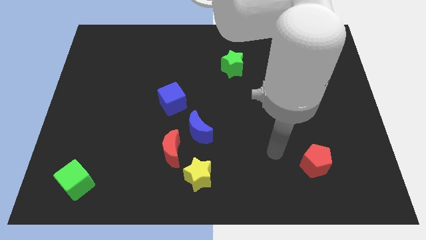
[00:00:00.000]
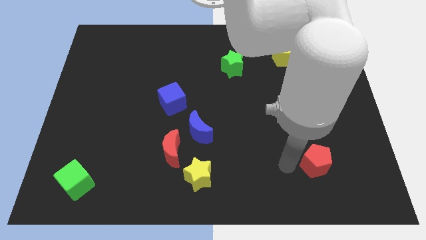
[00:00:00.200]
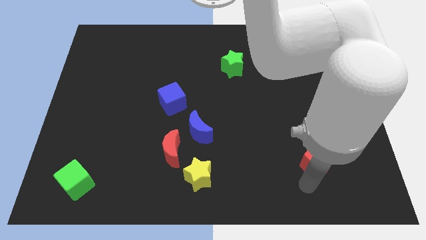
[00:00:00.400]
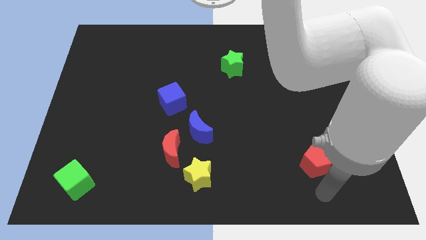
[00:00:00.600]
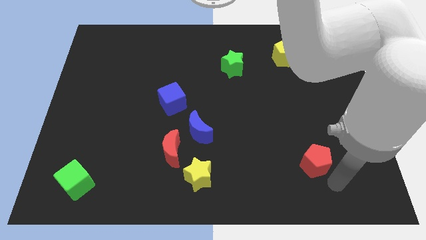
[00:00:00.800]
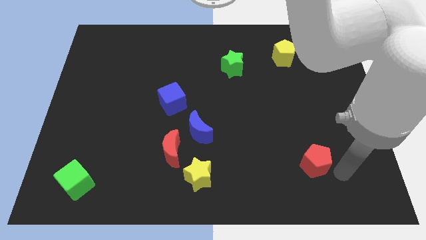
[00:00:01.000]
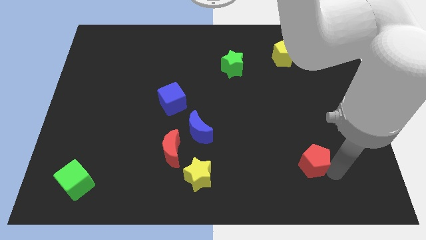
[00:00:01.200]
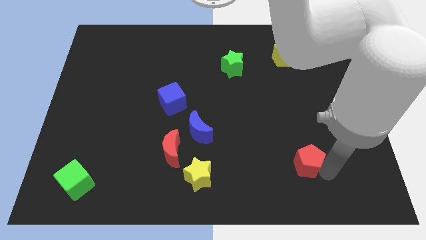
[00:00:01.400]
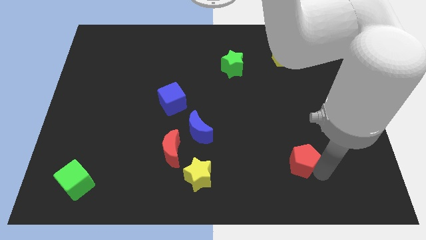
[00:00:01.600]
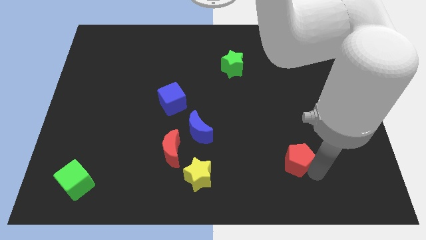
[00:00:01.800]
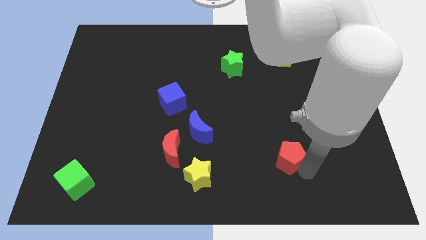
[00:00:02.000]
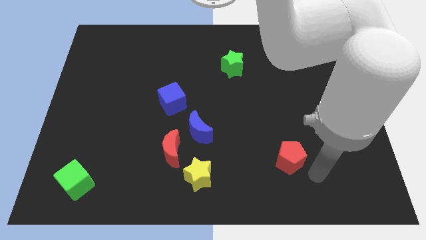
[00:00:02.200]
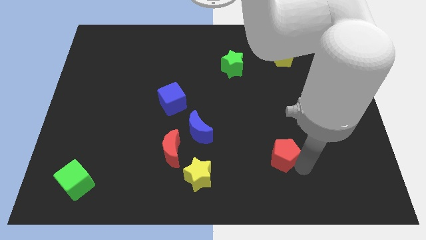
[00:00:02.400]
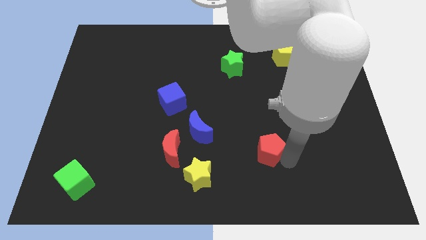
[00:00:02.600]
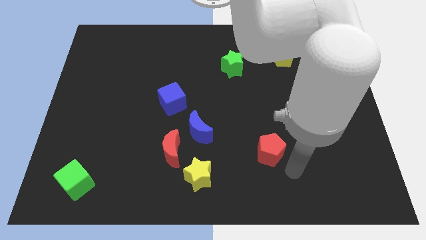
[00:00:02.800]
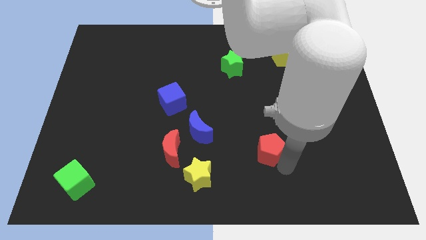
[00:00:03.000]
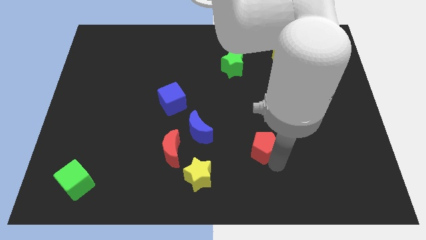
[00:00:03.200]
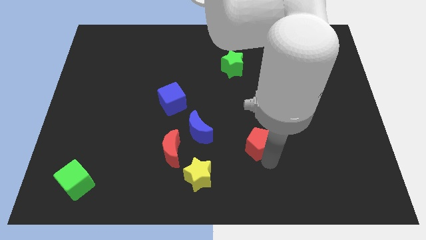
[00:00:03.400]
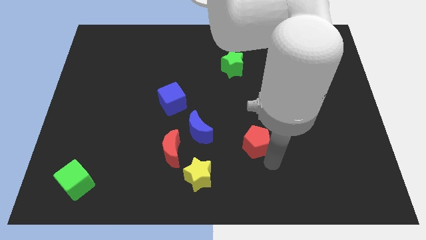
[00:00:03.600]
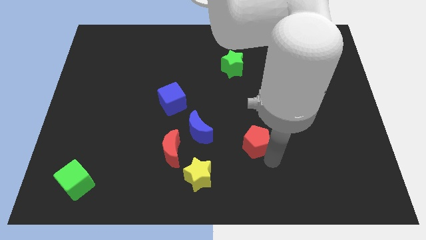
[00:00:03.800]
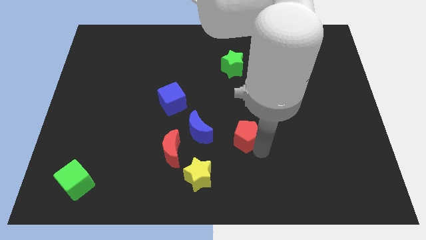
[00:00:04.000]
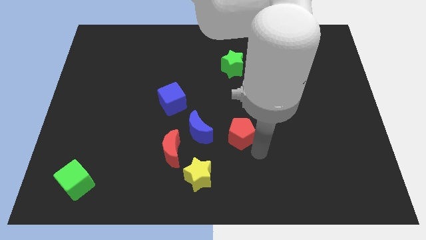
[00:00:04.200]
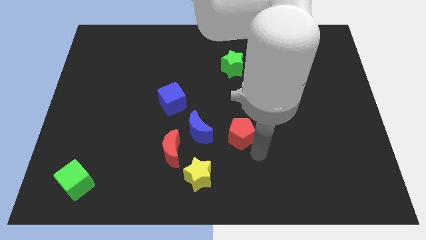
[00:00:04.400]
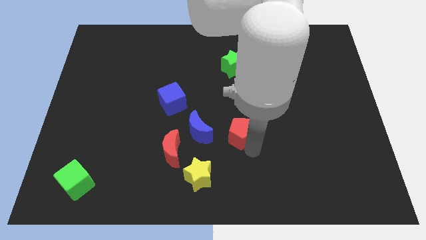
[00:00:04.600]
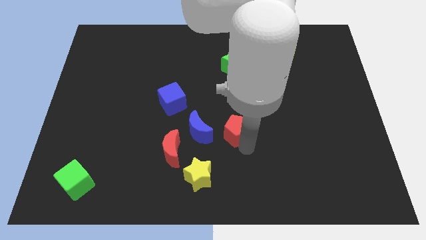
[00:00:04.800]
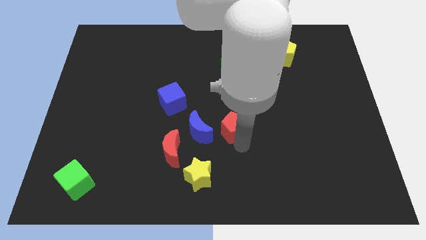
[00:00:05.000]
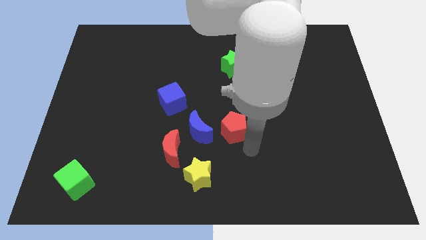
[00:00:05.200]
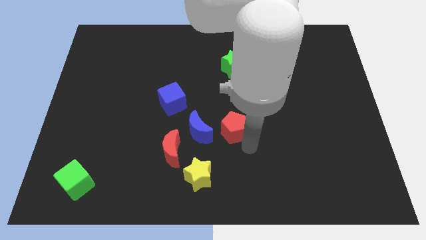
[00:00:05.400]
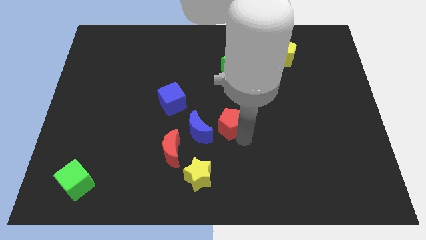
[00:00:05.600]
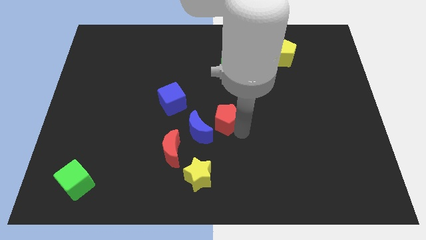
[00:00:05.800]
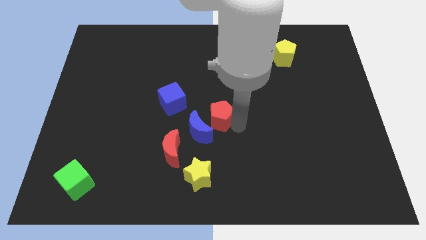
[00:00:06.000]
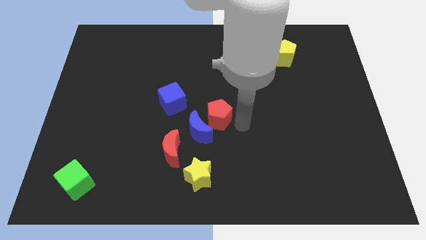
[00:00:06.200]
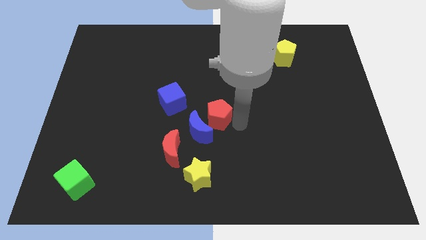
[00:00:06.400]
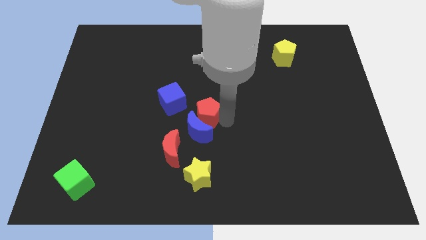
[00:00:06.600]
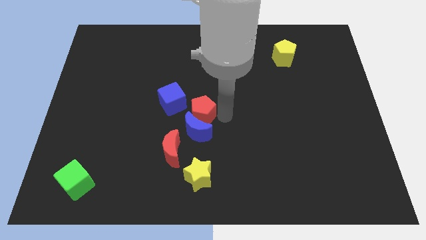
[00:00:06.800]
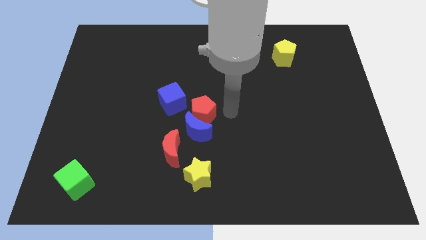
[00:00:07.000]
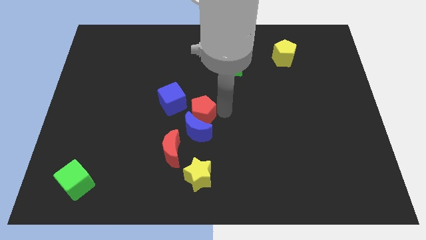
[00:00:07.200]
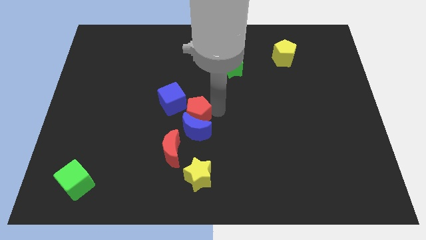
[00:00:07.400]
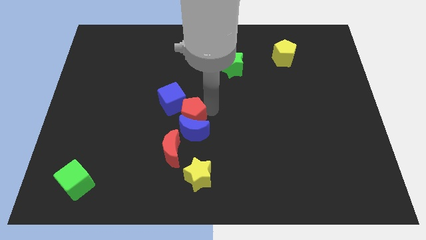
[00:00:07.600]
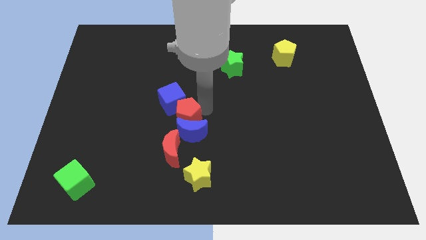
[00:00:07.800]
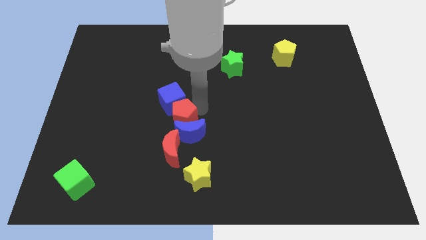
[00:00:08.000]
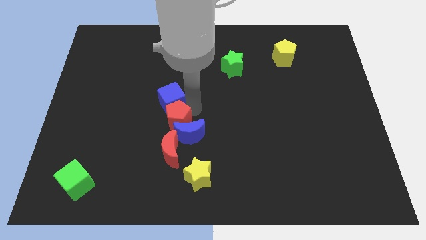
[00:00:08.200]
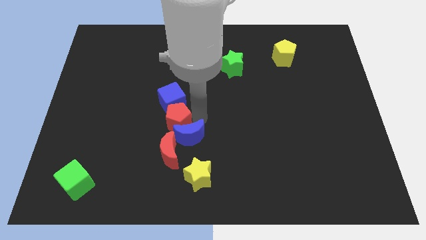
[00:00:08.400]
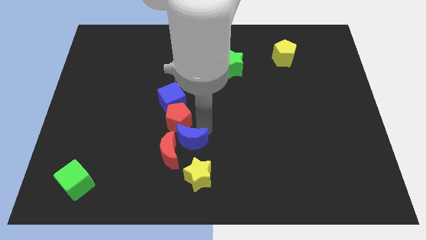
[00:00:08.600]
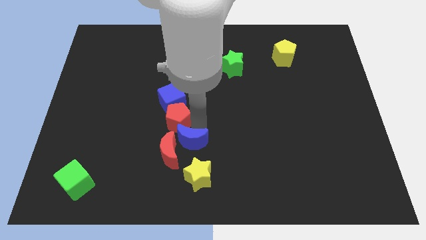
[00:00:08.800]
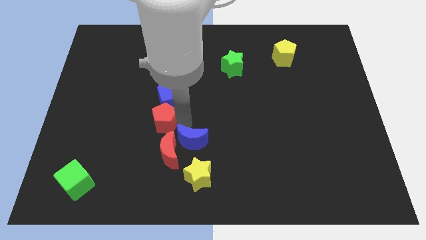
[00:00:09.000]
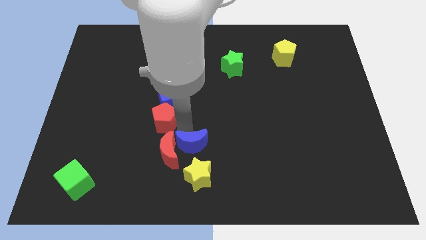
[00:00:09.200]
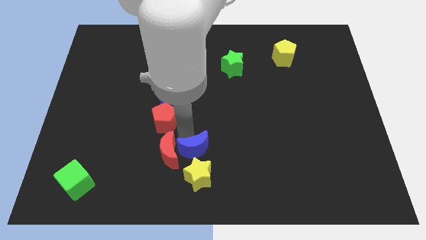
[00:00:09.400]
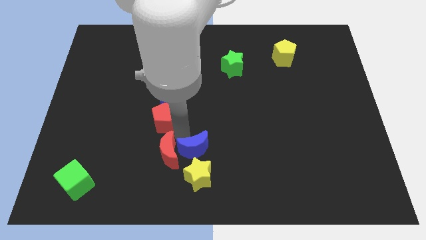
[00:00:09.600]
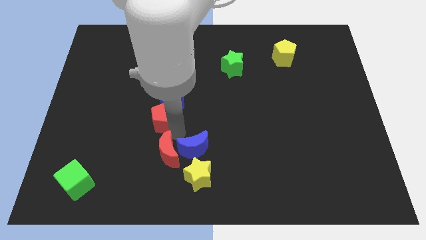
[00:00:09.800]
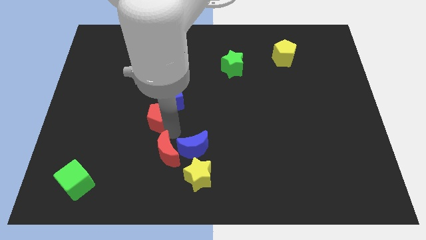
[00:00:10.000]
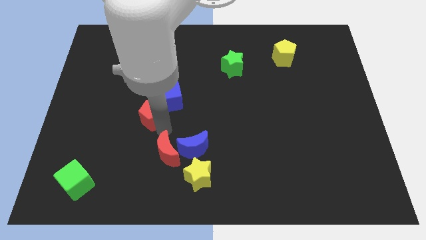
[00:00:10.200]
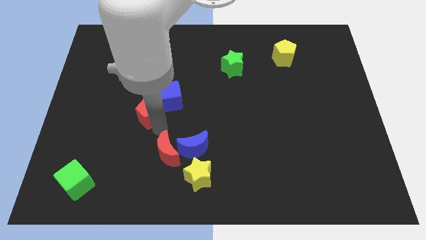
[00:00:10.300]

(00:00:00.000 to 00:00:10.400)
put the red pentagon left of the blue cube

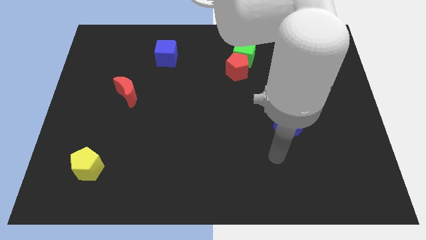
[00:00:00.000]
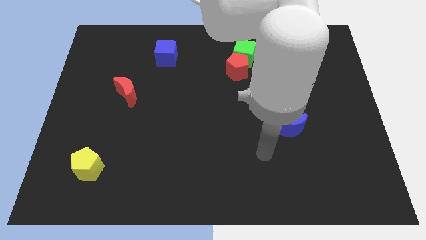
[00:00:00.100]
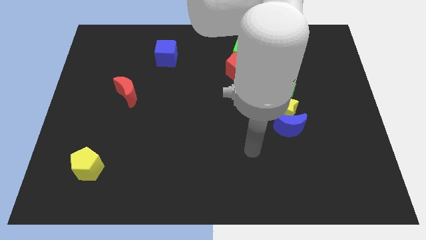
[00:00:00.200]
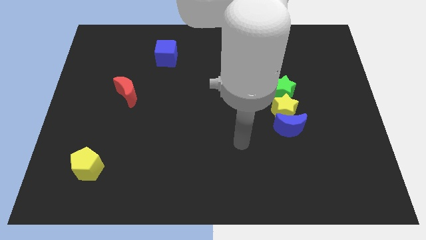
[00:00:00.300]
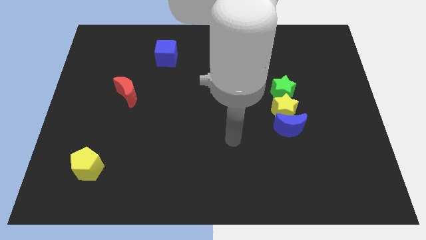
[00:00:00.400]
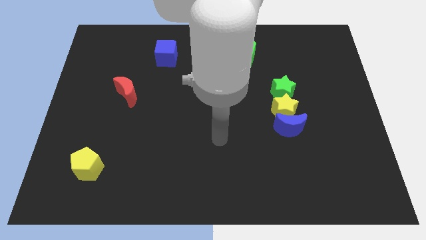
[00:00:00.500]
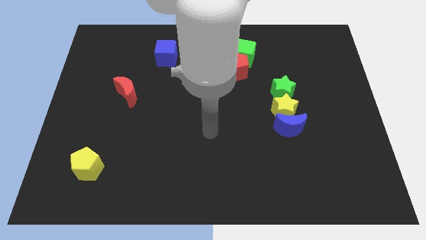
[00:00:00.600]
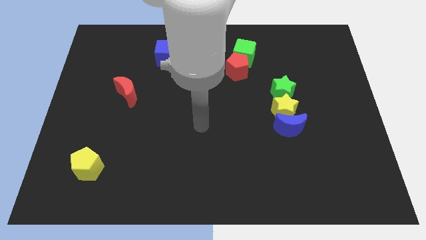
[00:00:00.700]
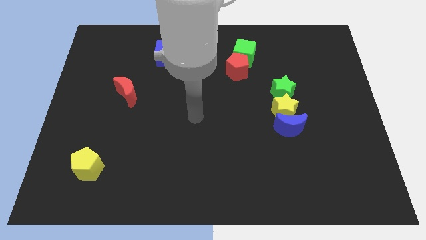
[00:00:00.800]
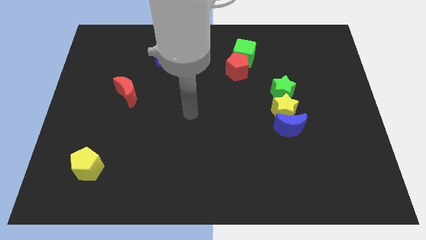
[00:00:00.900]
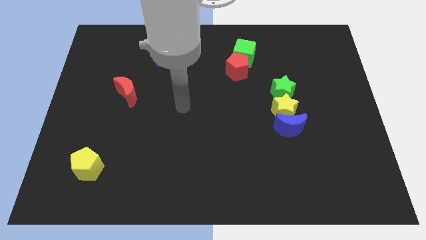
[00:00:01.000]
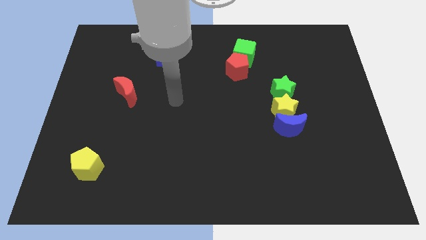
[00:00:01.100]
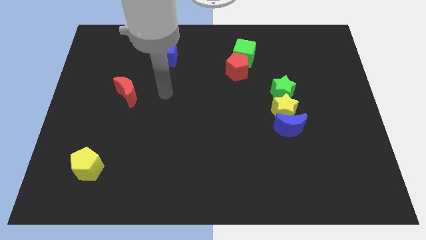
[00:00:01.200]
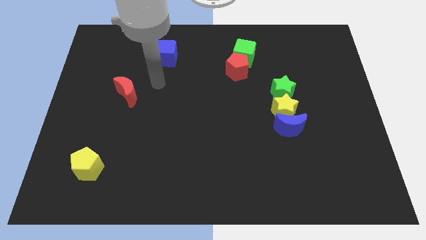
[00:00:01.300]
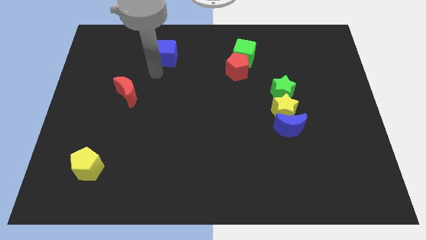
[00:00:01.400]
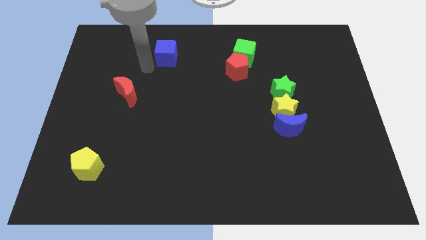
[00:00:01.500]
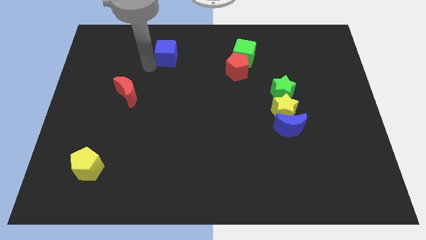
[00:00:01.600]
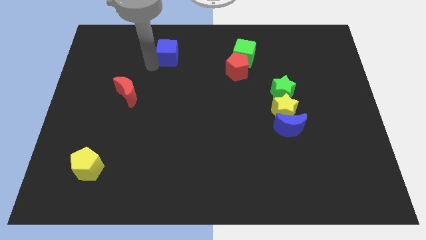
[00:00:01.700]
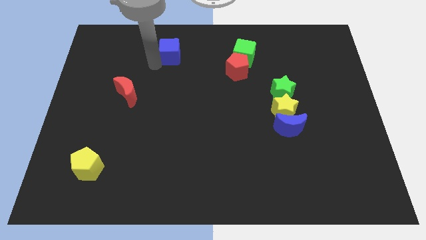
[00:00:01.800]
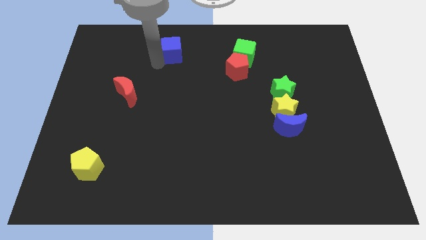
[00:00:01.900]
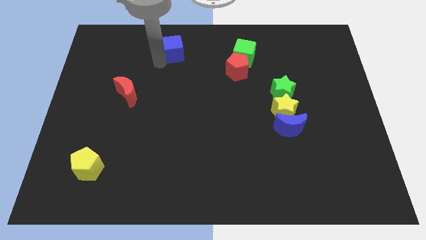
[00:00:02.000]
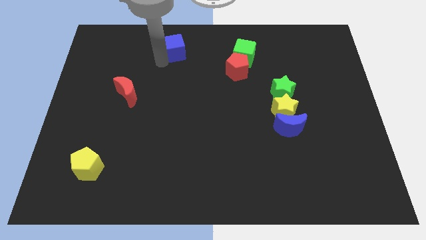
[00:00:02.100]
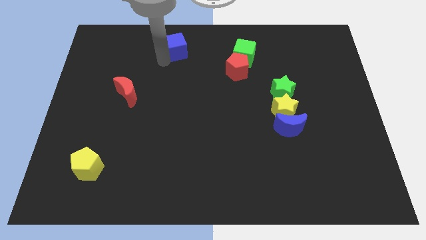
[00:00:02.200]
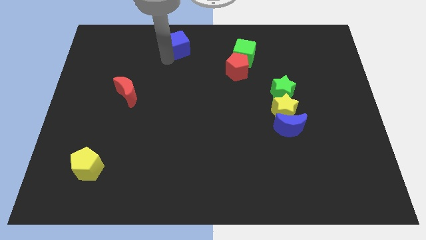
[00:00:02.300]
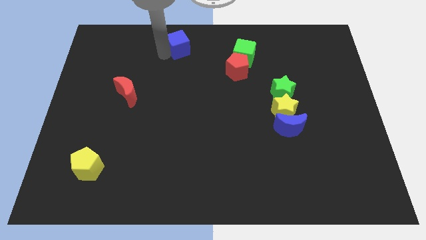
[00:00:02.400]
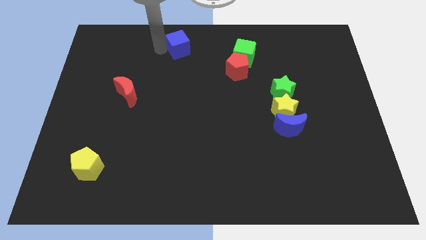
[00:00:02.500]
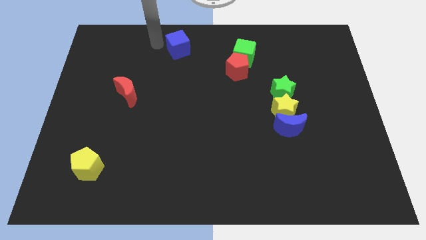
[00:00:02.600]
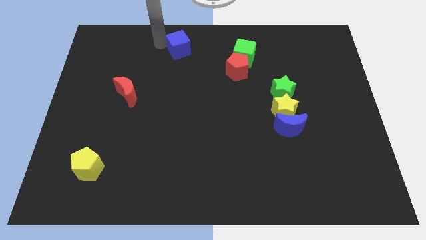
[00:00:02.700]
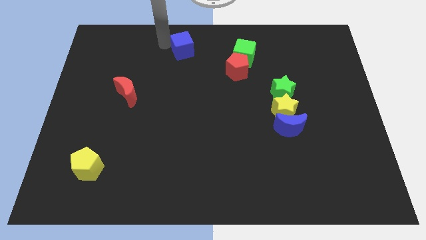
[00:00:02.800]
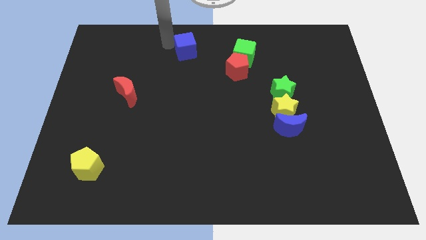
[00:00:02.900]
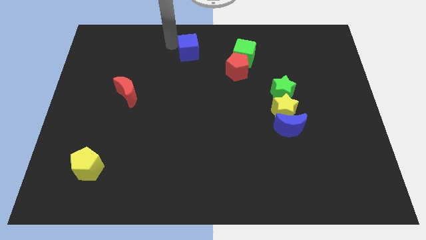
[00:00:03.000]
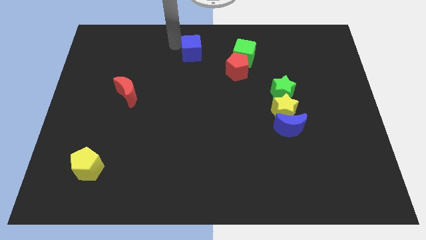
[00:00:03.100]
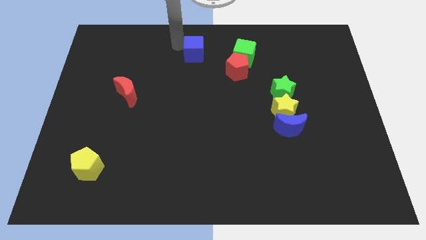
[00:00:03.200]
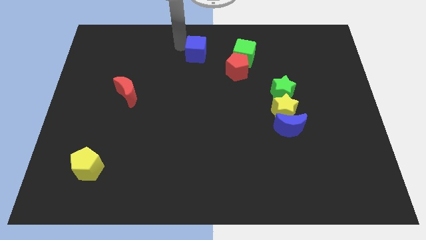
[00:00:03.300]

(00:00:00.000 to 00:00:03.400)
push the blue cube to the top left side of the red pentagon
